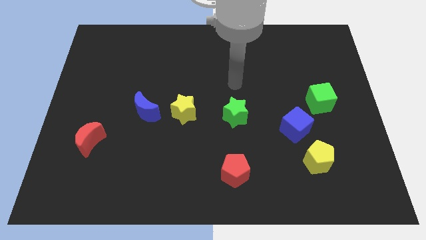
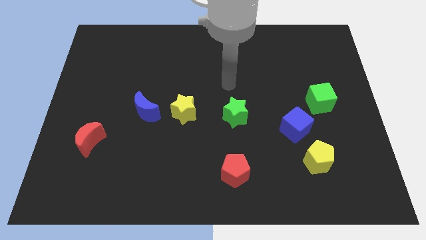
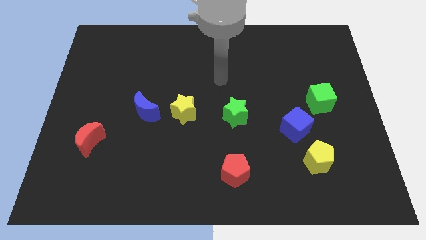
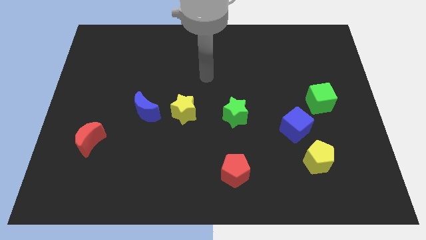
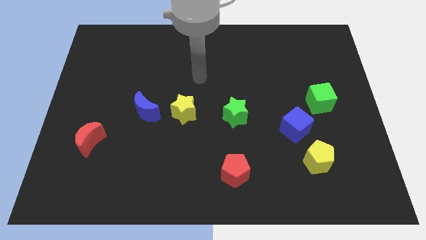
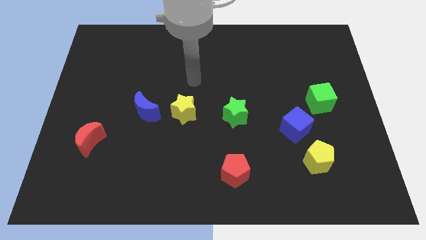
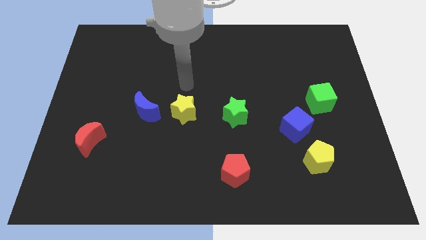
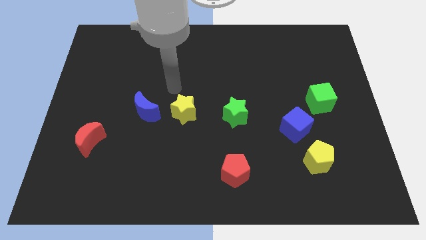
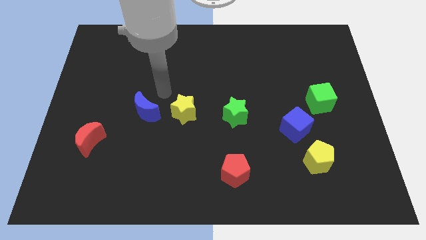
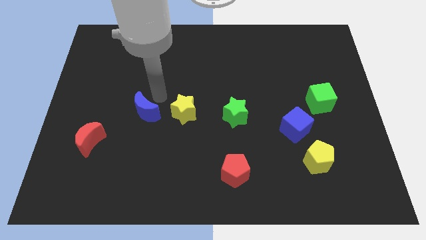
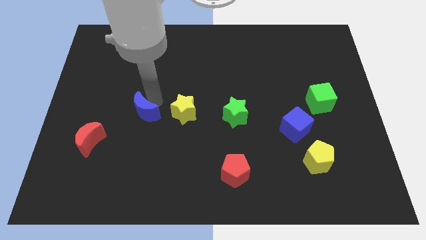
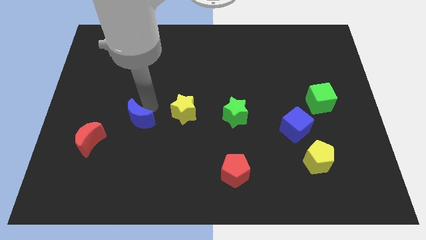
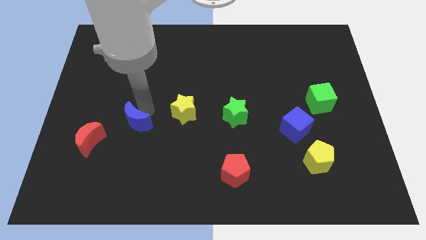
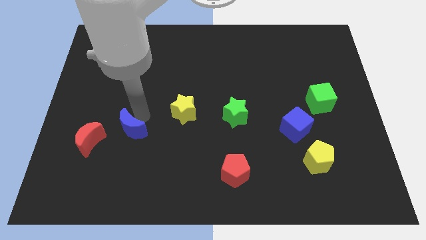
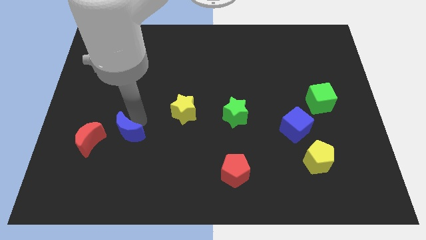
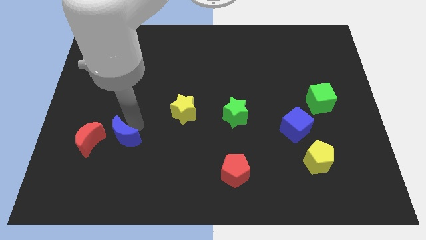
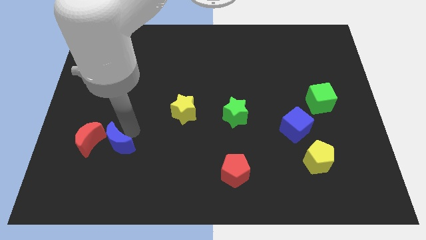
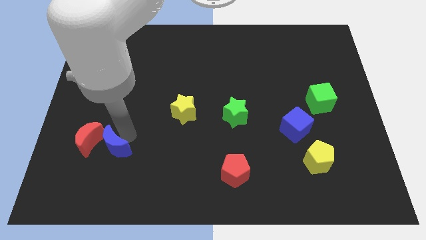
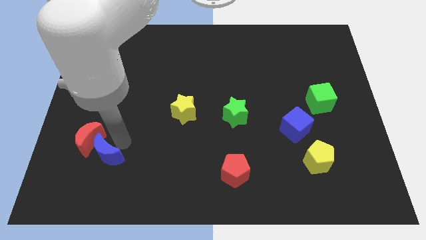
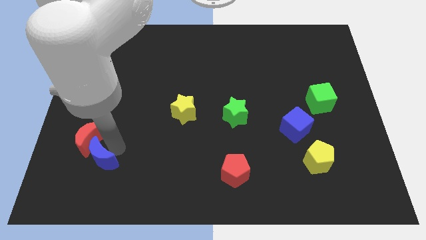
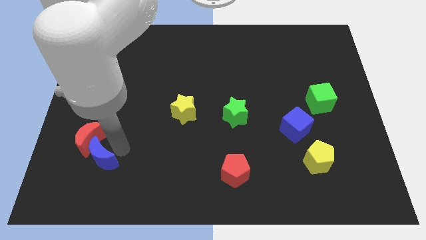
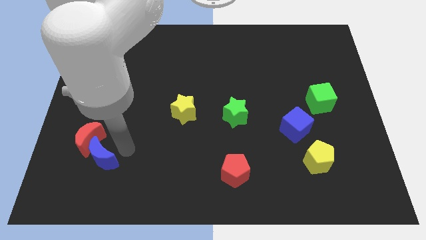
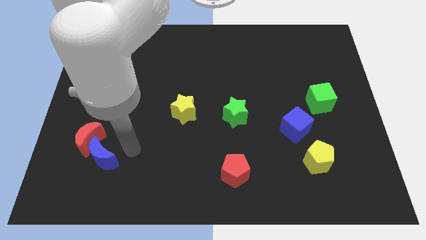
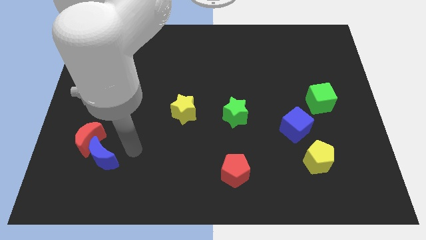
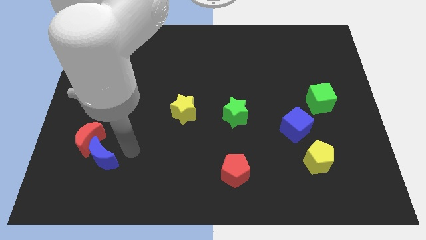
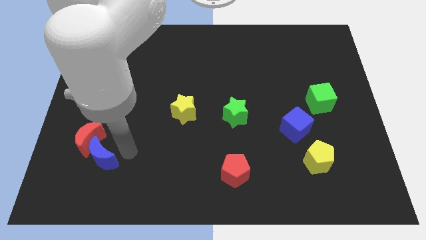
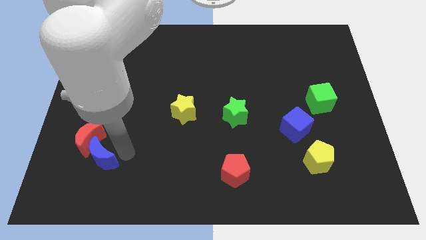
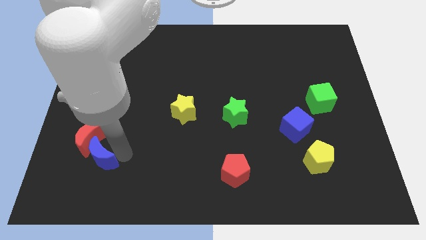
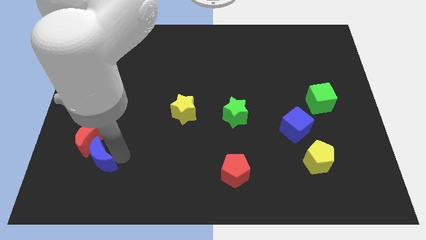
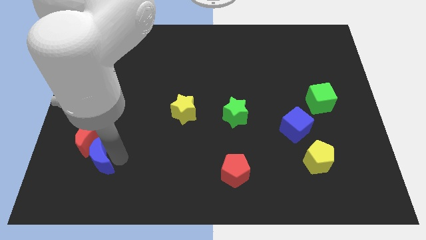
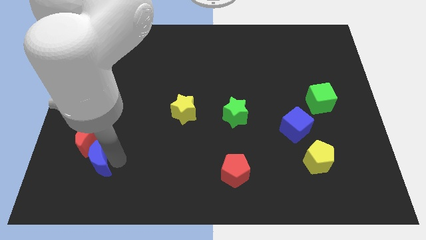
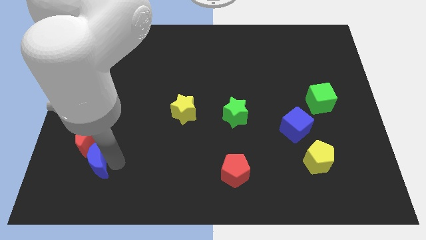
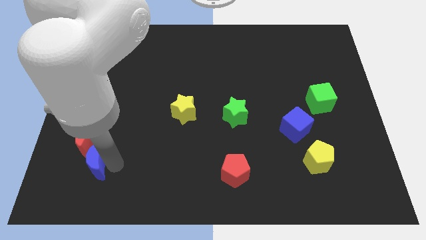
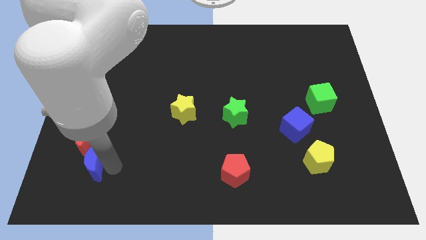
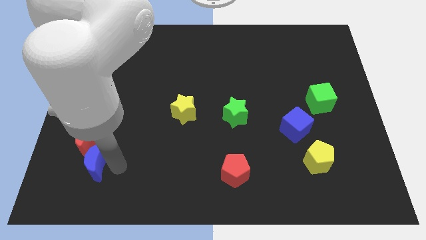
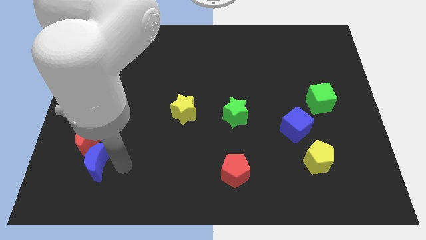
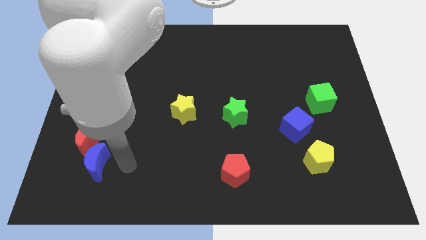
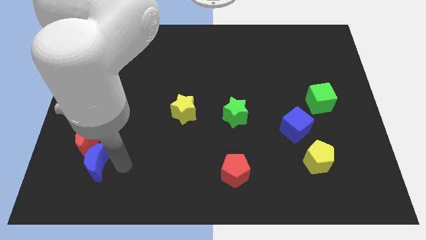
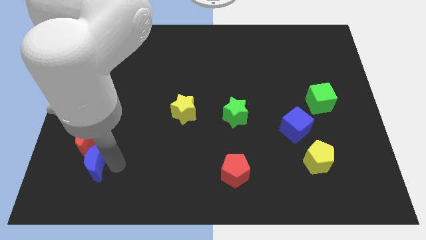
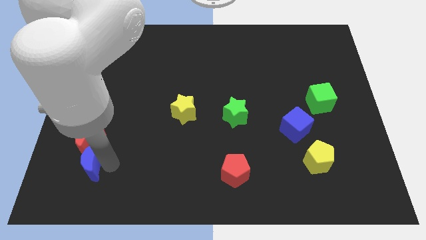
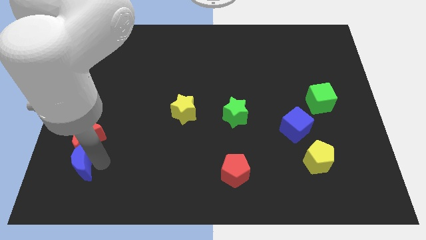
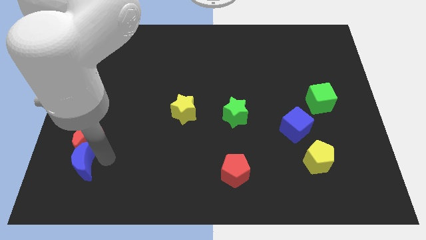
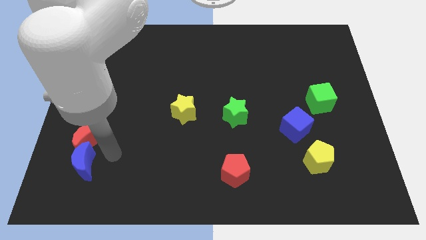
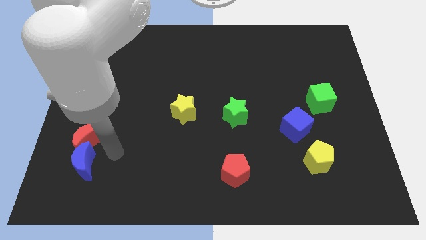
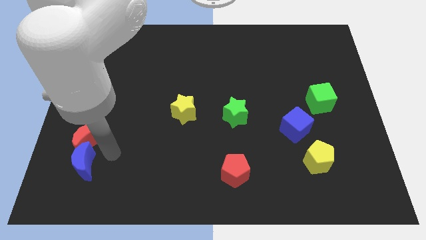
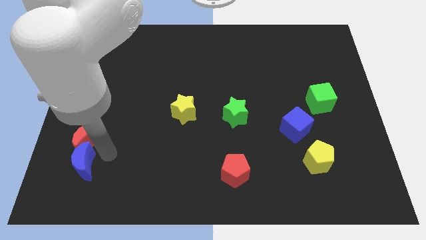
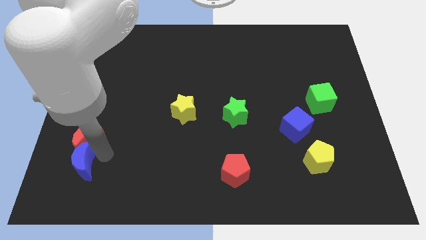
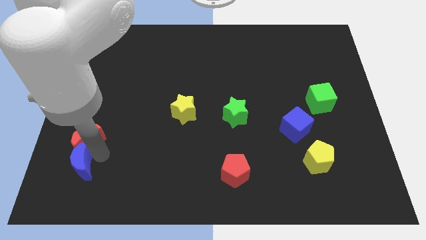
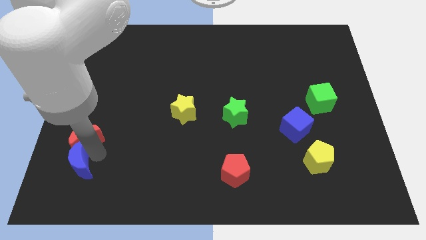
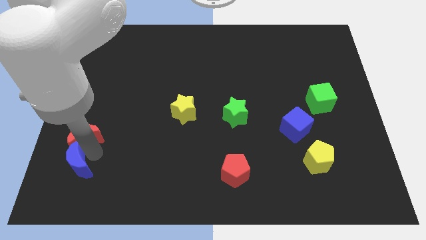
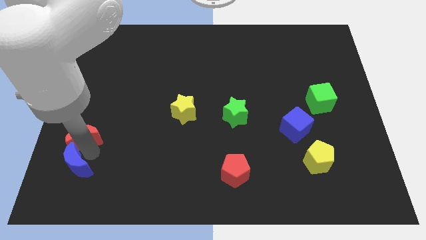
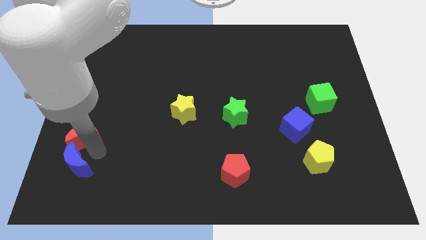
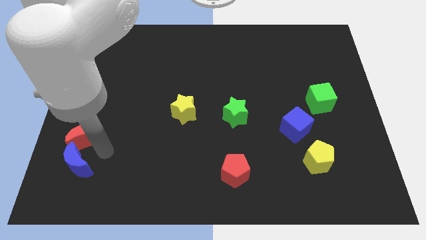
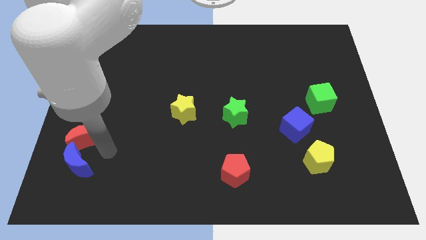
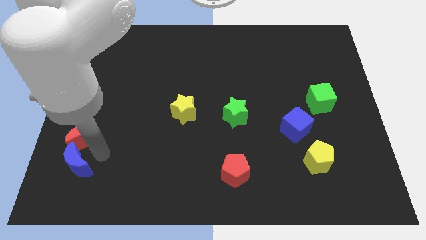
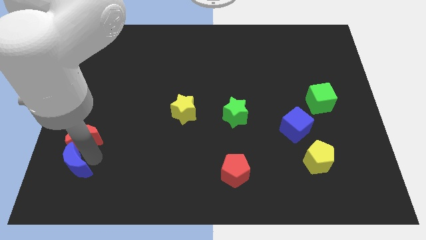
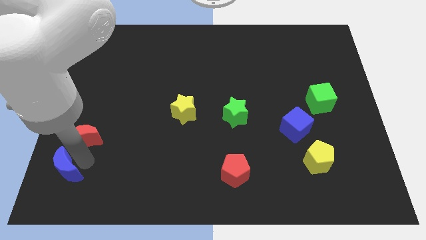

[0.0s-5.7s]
move the blue moon to the bottom left of the board

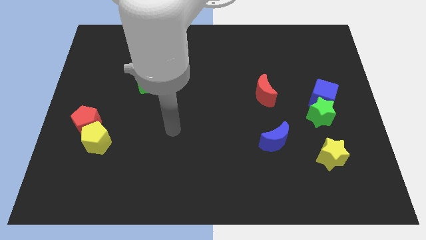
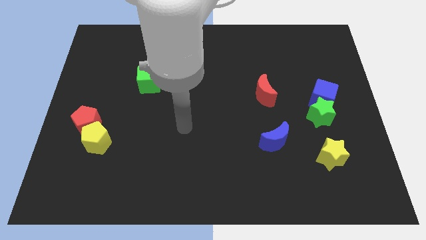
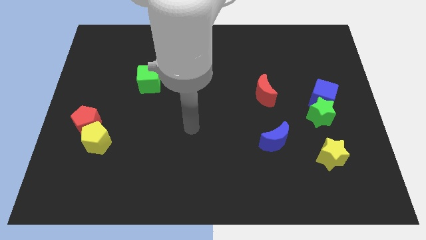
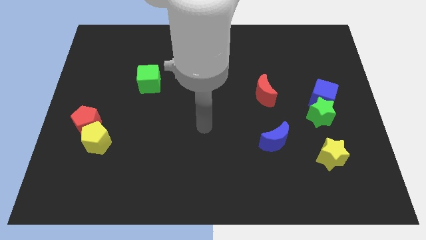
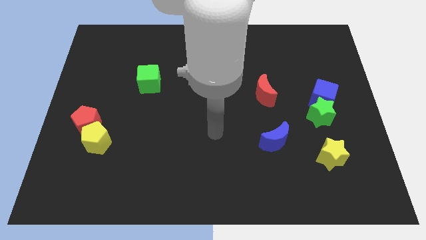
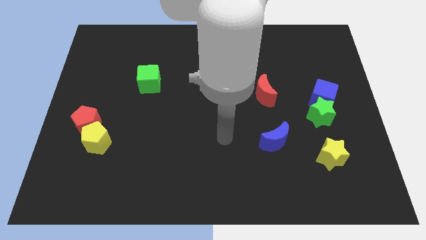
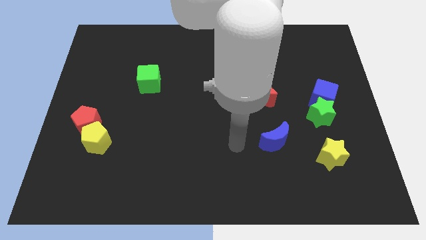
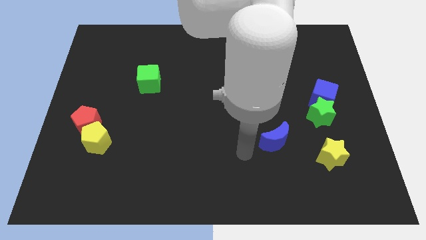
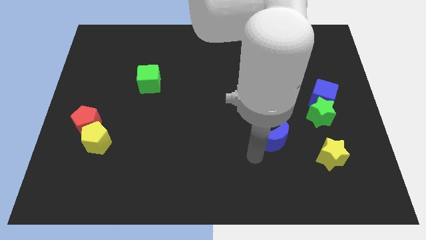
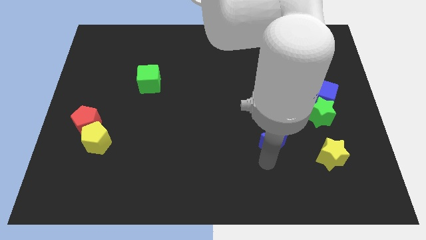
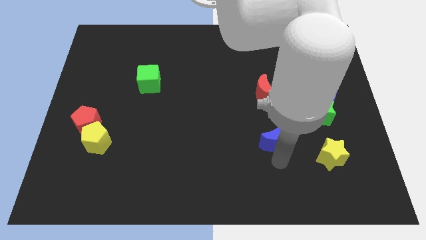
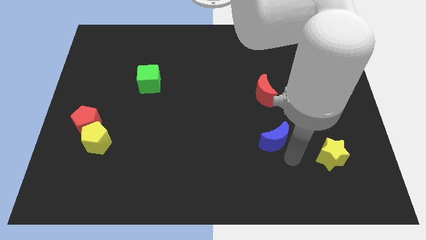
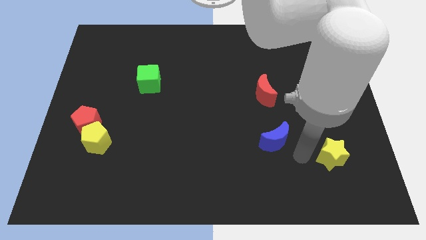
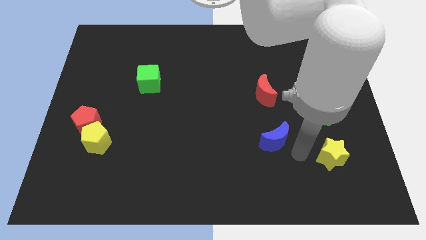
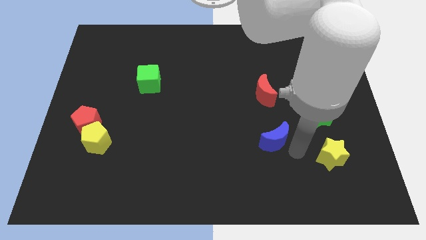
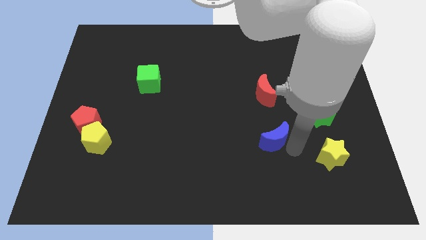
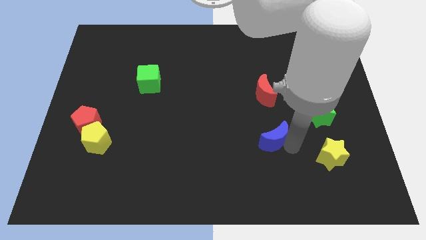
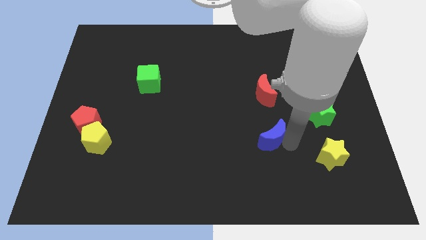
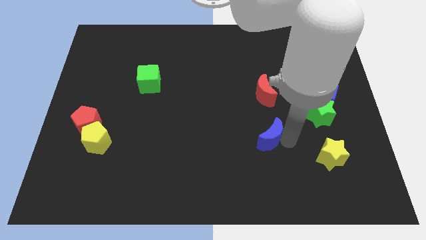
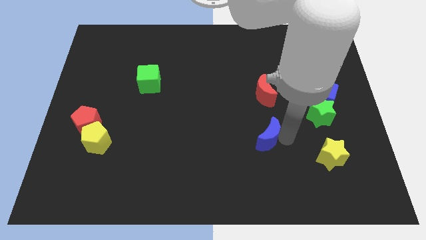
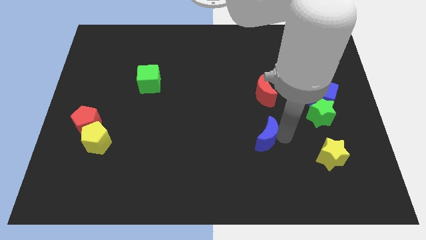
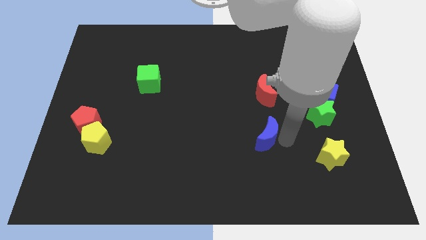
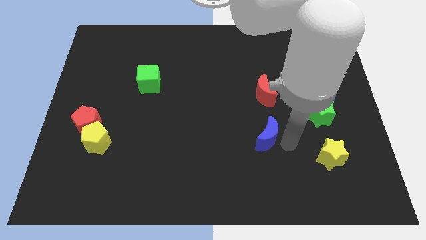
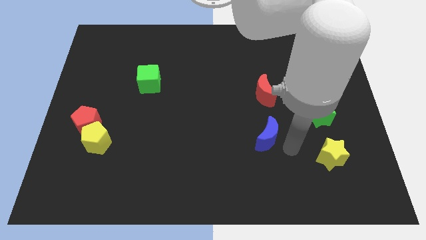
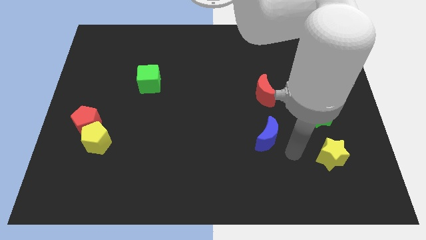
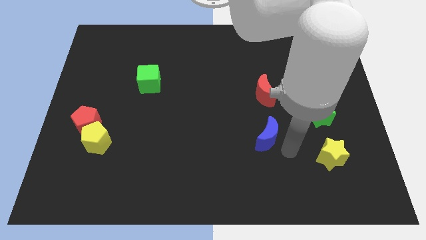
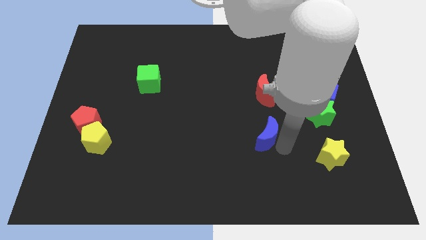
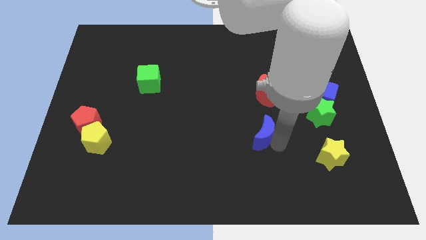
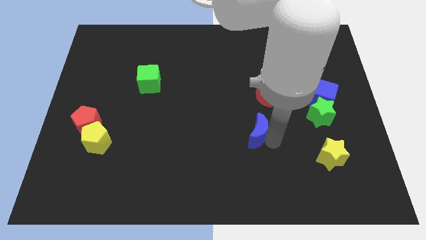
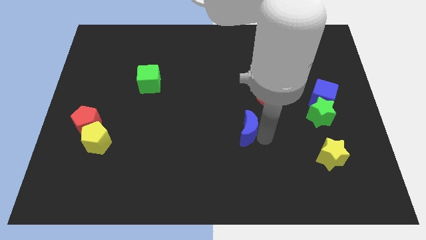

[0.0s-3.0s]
slide the blue moon to the middle of the board
